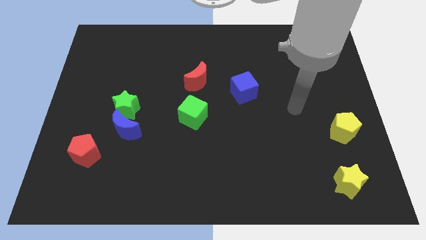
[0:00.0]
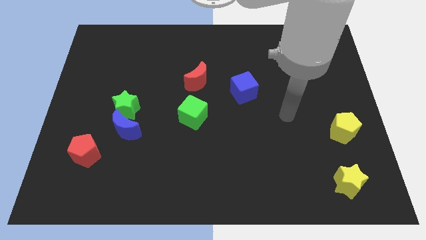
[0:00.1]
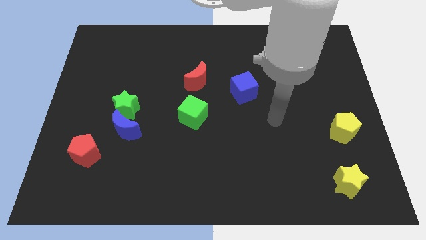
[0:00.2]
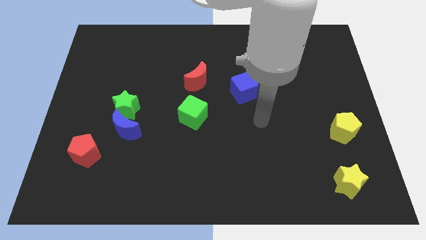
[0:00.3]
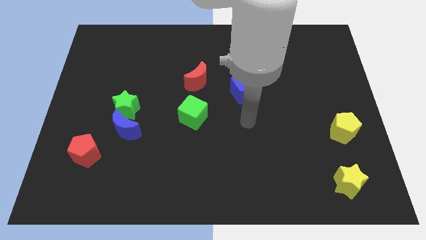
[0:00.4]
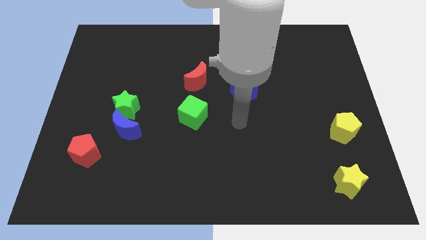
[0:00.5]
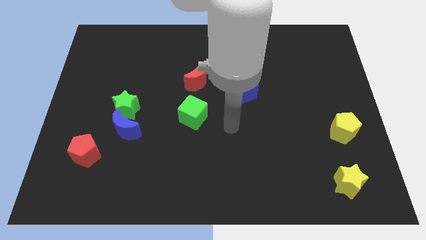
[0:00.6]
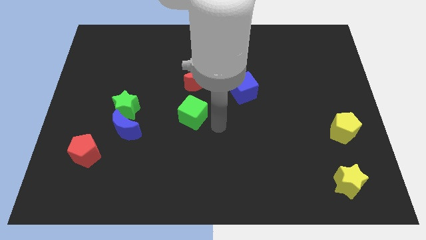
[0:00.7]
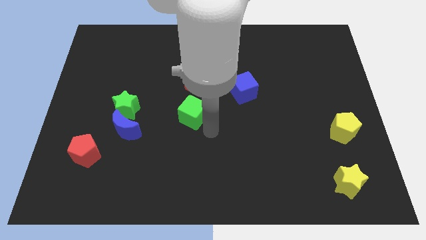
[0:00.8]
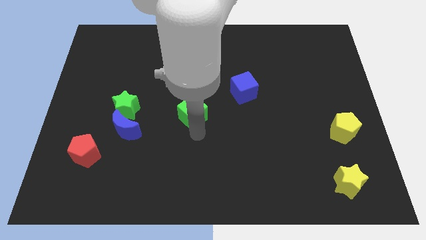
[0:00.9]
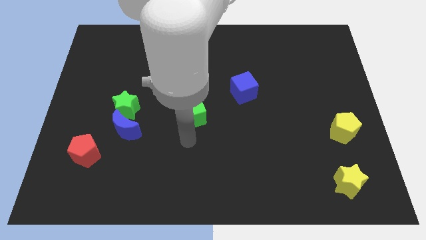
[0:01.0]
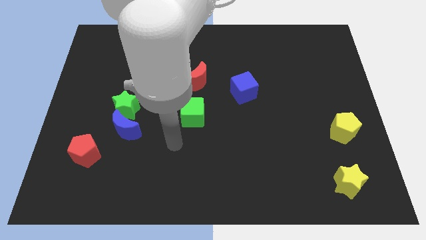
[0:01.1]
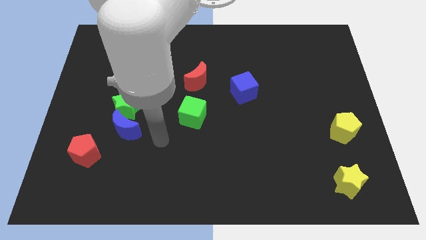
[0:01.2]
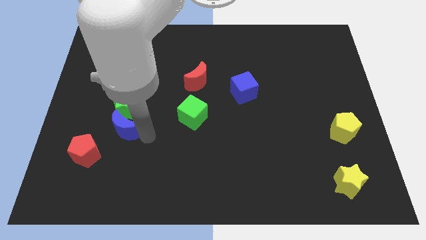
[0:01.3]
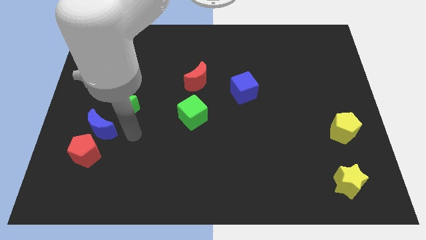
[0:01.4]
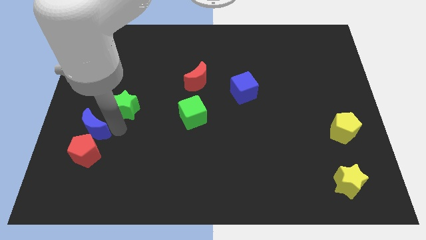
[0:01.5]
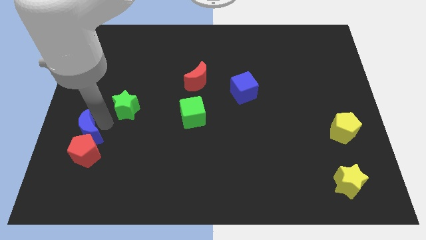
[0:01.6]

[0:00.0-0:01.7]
separate the green star from the blue moon

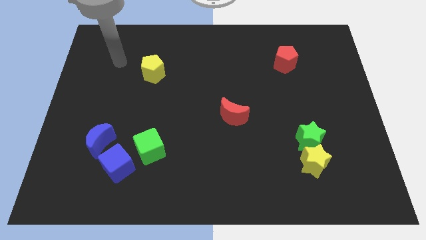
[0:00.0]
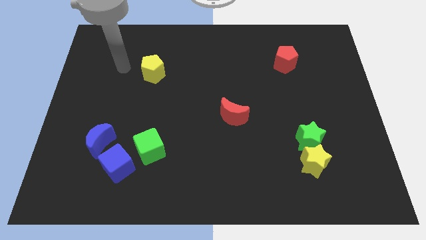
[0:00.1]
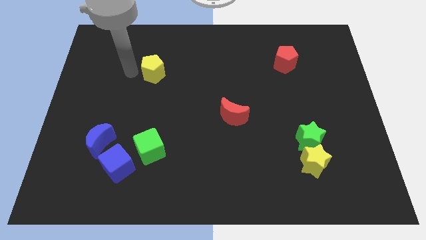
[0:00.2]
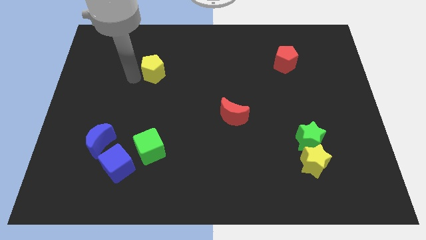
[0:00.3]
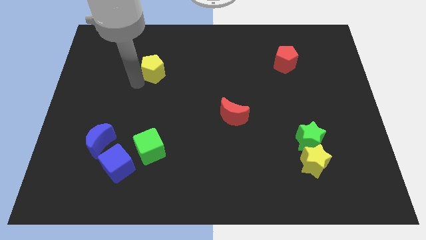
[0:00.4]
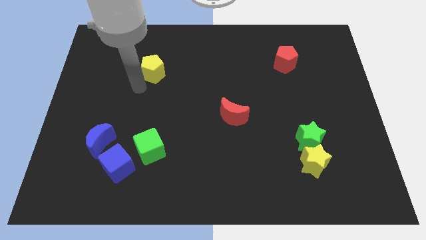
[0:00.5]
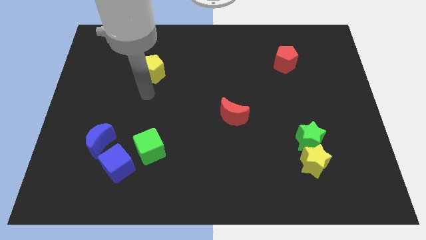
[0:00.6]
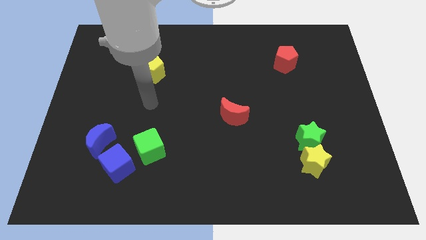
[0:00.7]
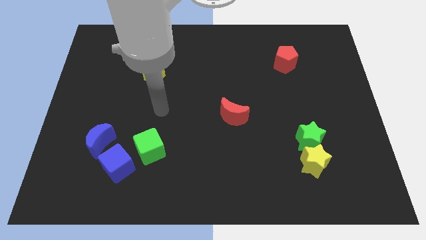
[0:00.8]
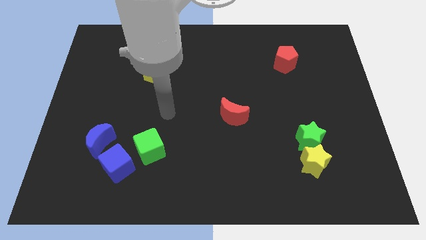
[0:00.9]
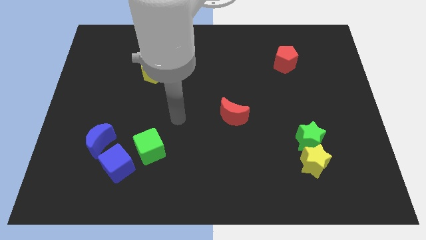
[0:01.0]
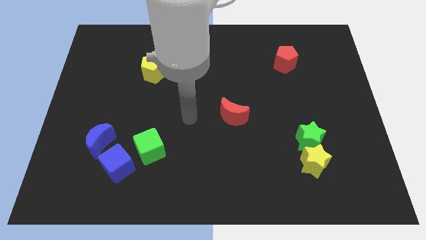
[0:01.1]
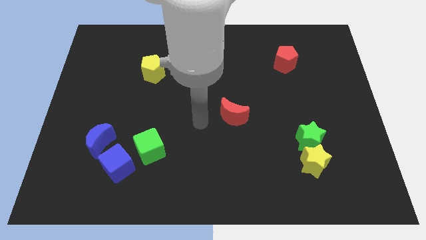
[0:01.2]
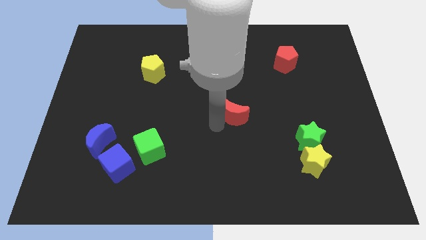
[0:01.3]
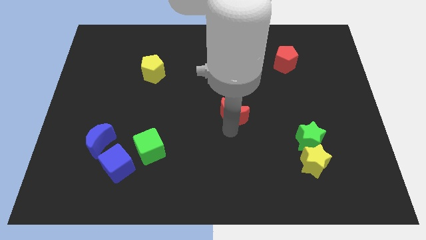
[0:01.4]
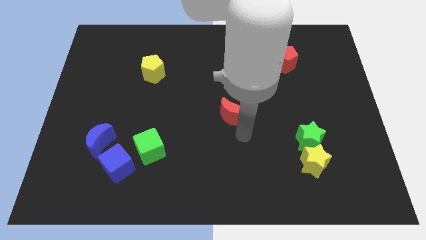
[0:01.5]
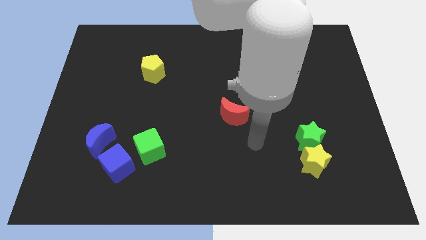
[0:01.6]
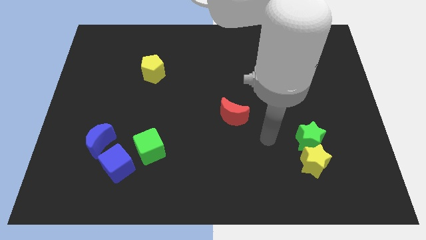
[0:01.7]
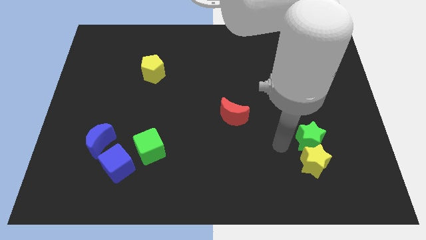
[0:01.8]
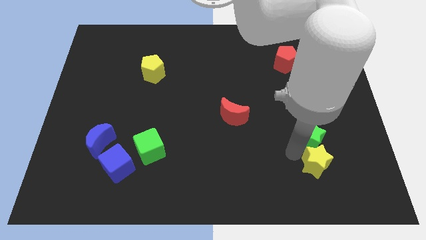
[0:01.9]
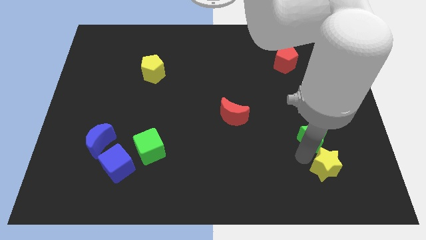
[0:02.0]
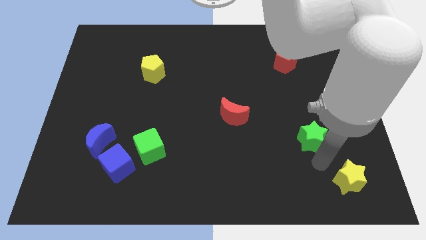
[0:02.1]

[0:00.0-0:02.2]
pull the green star apart from the yellow star

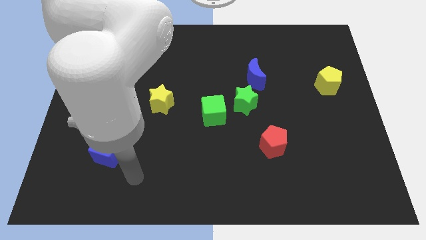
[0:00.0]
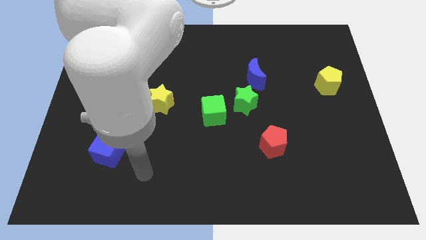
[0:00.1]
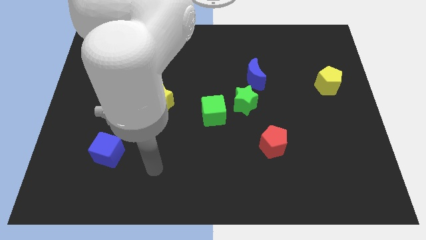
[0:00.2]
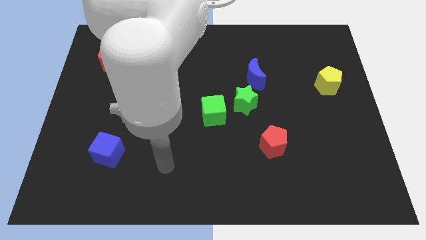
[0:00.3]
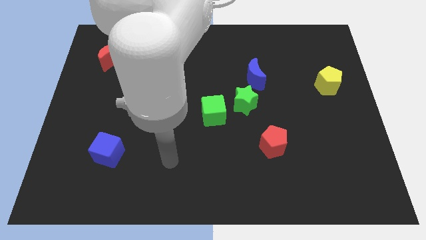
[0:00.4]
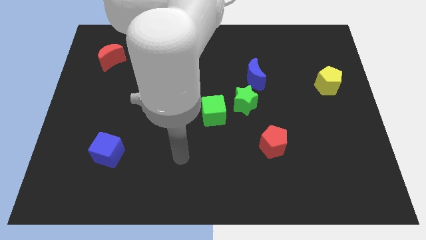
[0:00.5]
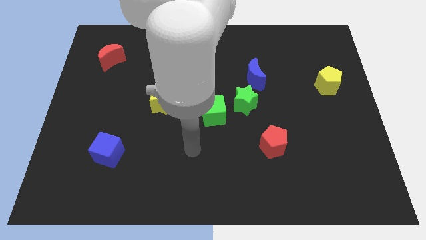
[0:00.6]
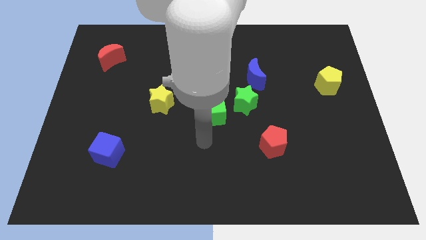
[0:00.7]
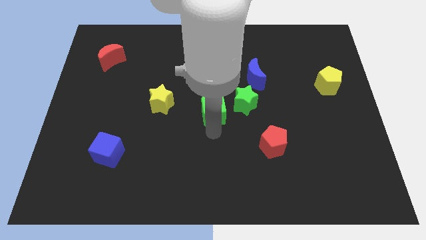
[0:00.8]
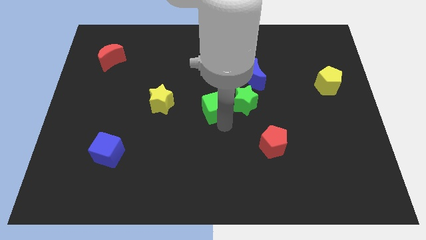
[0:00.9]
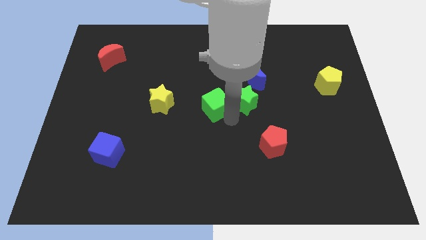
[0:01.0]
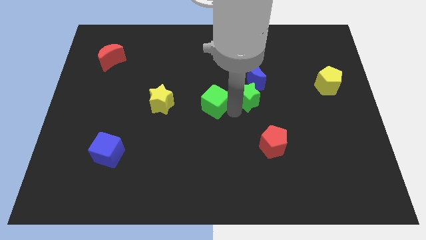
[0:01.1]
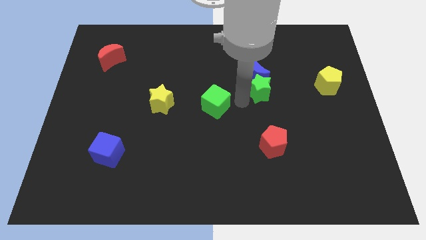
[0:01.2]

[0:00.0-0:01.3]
separate the green cube from the green star

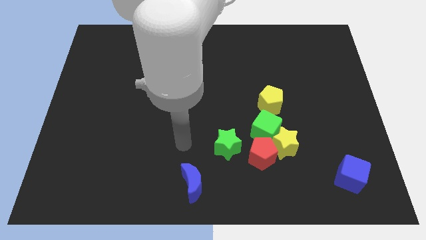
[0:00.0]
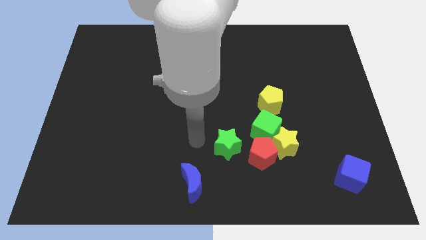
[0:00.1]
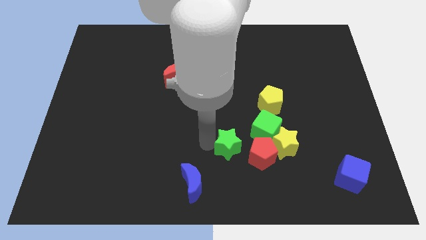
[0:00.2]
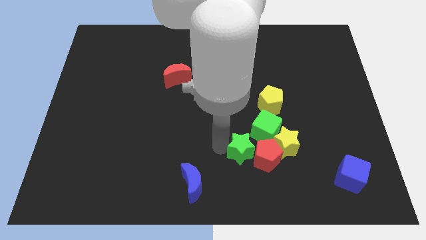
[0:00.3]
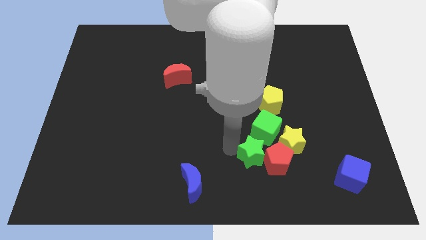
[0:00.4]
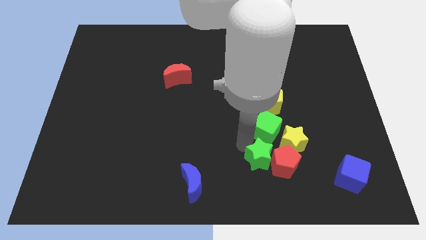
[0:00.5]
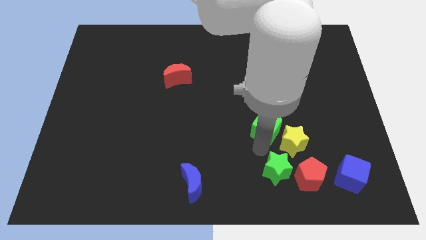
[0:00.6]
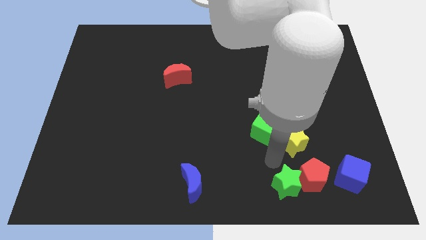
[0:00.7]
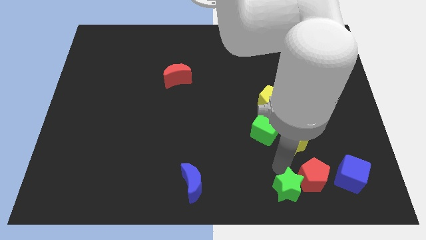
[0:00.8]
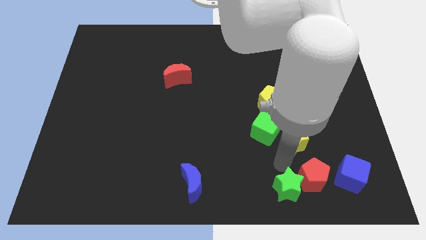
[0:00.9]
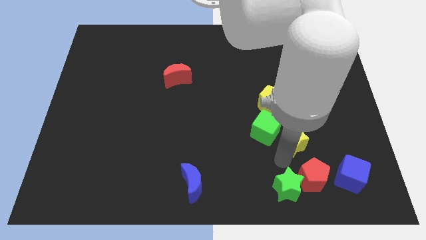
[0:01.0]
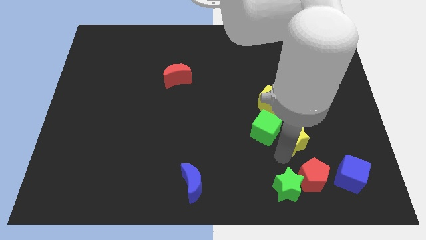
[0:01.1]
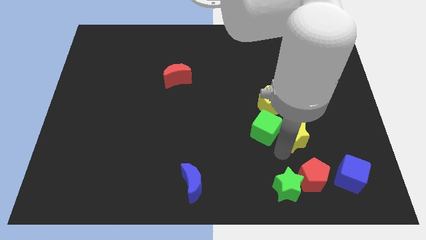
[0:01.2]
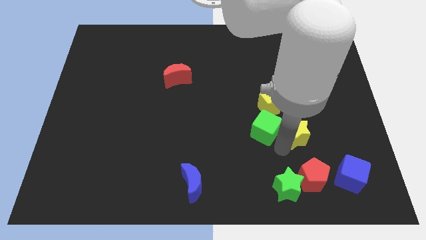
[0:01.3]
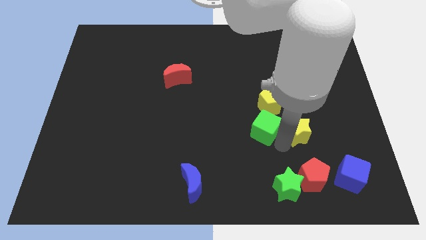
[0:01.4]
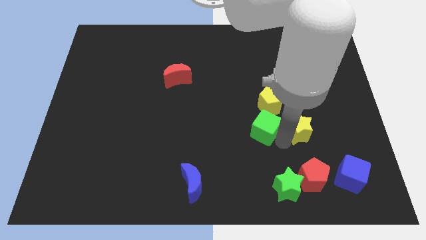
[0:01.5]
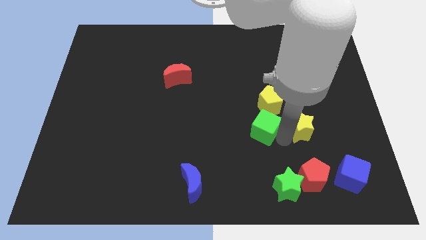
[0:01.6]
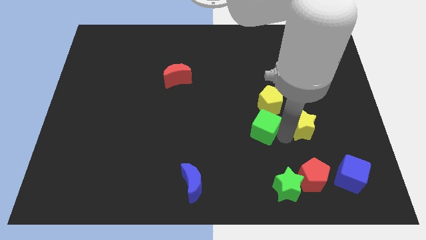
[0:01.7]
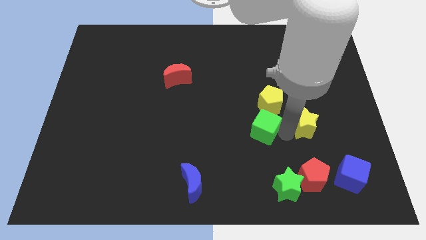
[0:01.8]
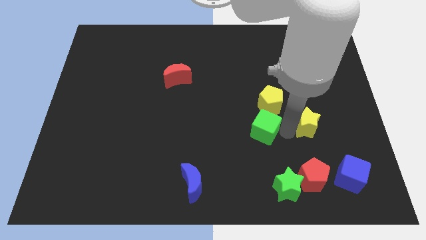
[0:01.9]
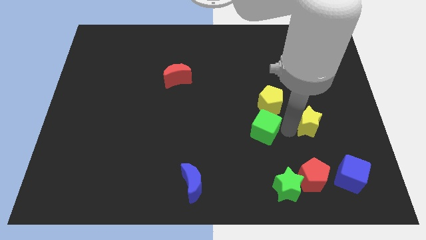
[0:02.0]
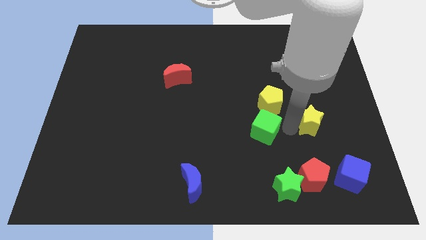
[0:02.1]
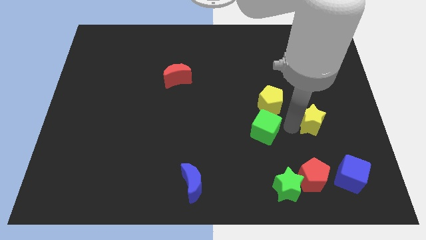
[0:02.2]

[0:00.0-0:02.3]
separate the yellow star from the green cube and red pentagon

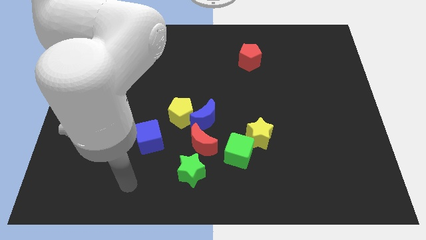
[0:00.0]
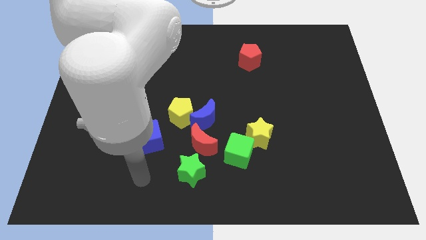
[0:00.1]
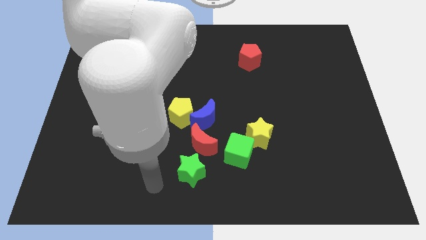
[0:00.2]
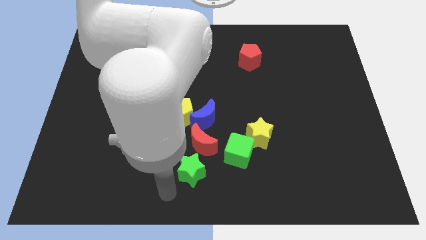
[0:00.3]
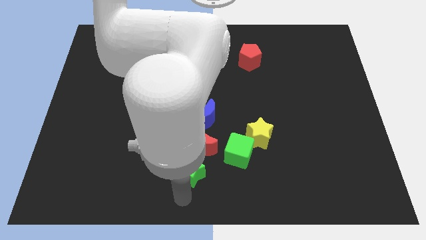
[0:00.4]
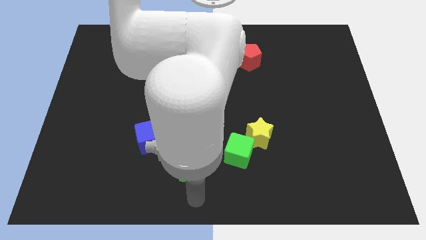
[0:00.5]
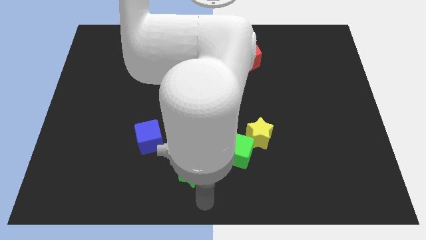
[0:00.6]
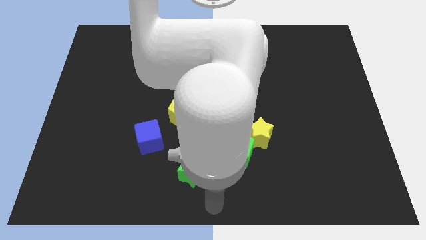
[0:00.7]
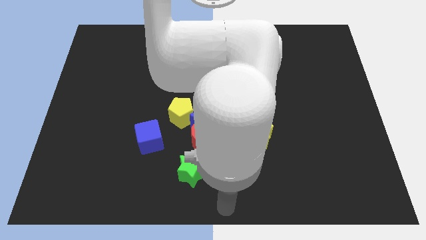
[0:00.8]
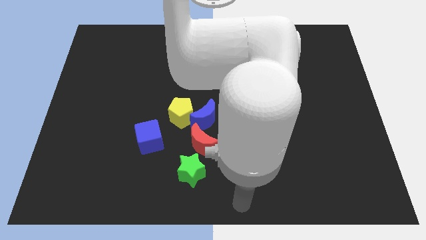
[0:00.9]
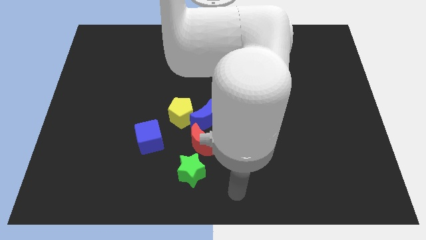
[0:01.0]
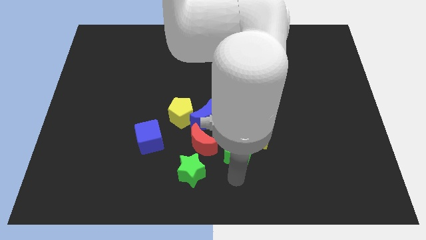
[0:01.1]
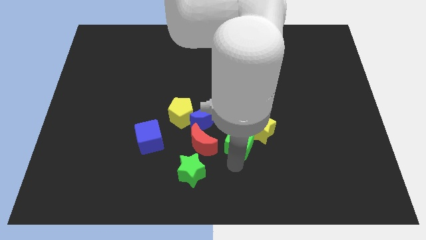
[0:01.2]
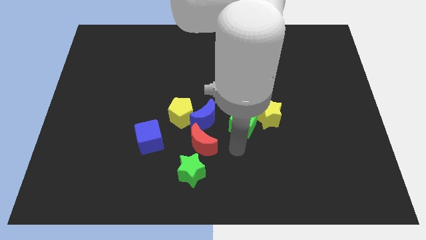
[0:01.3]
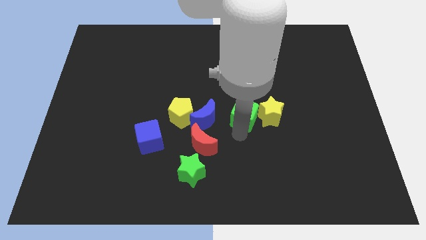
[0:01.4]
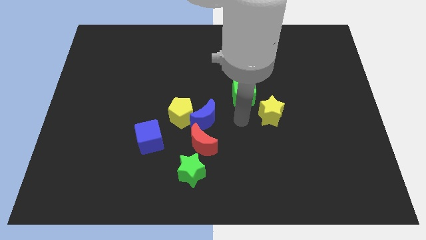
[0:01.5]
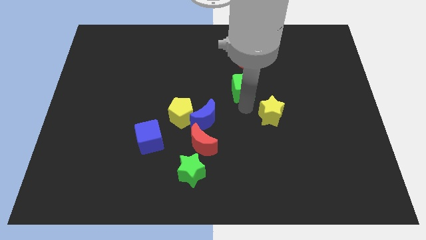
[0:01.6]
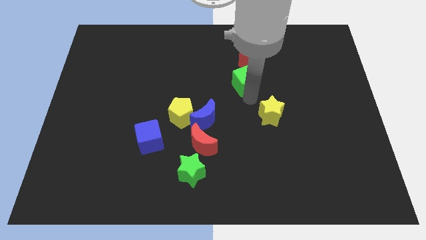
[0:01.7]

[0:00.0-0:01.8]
separate the yellow star from the green cube
